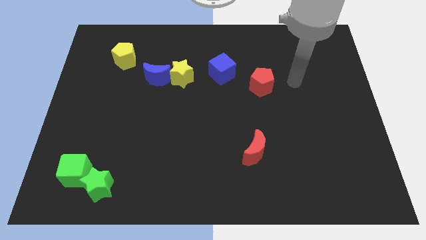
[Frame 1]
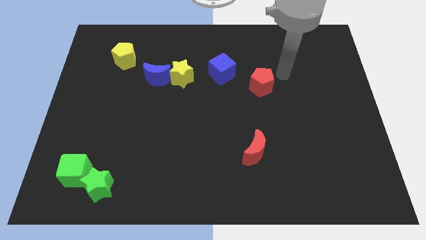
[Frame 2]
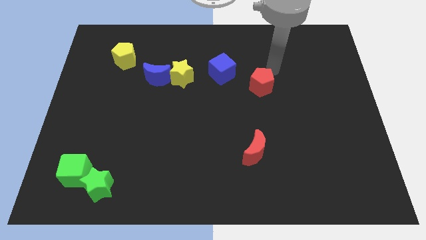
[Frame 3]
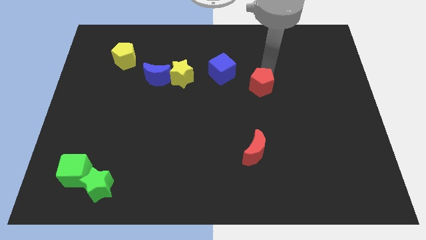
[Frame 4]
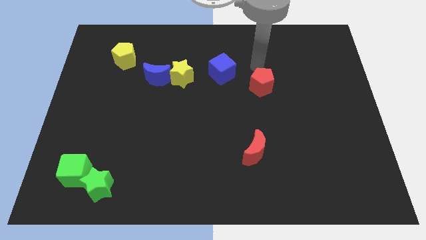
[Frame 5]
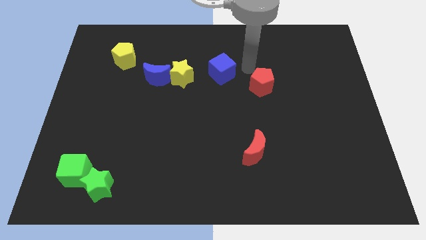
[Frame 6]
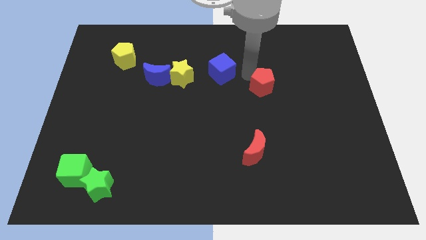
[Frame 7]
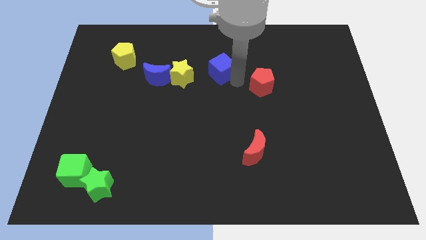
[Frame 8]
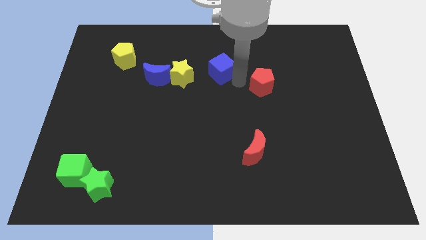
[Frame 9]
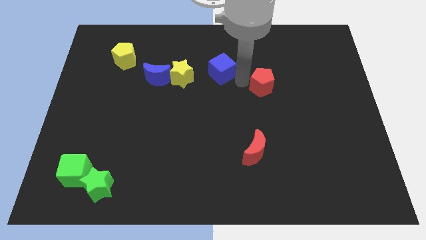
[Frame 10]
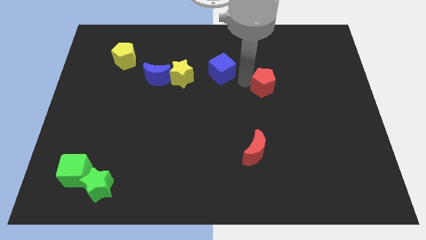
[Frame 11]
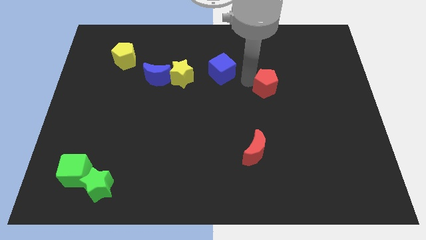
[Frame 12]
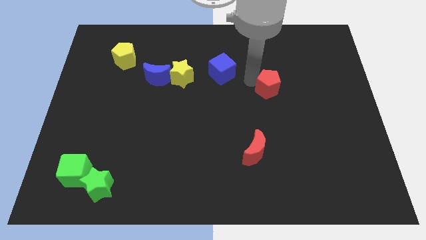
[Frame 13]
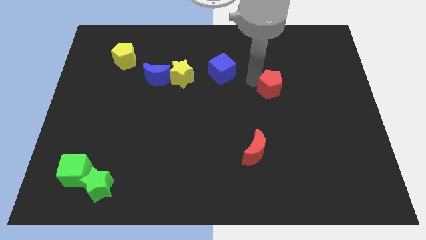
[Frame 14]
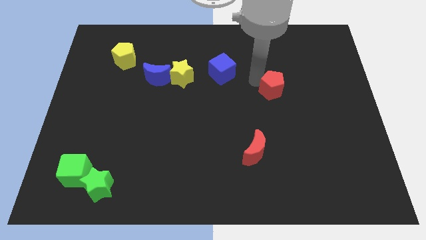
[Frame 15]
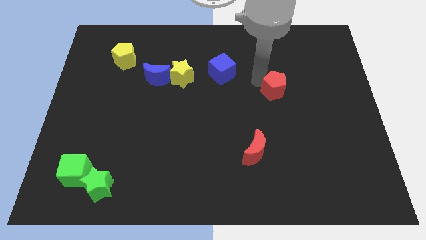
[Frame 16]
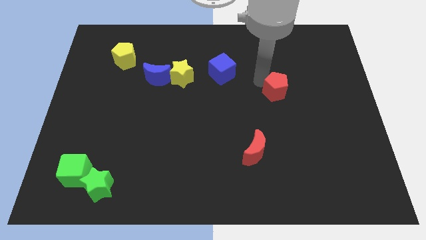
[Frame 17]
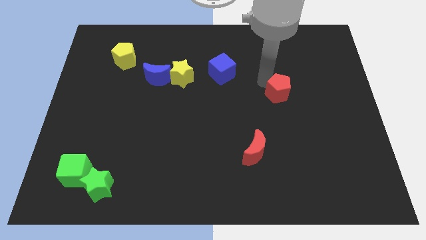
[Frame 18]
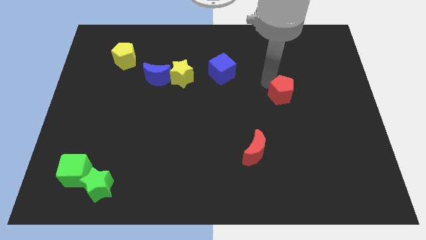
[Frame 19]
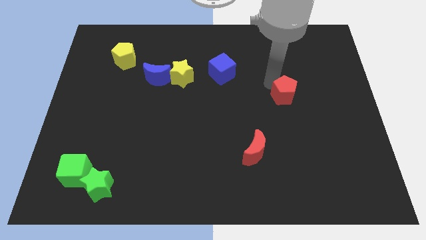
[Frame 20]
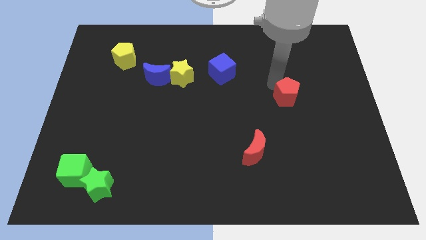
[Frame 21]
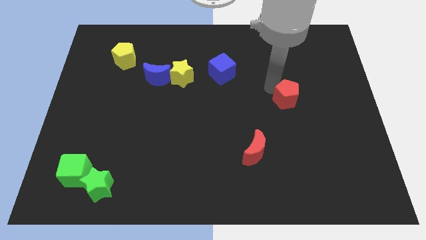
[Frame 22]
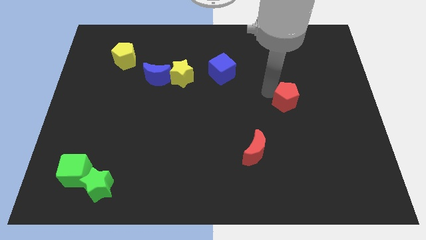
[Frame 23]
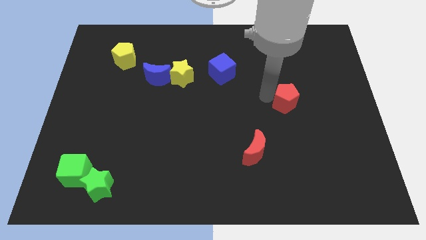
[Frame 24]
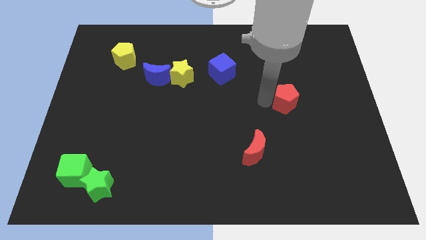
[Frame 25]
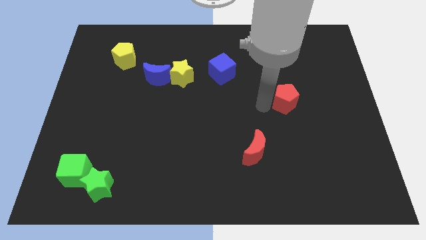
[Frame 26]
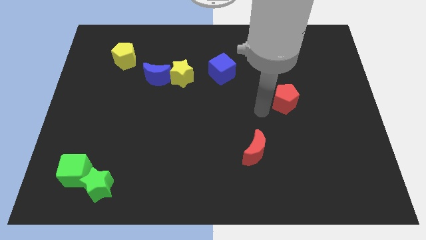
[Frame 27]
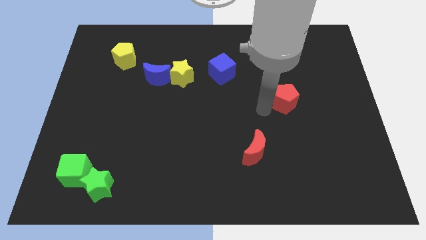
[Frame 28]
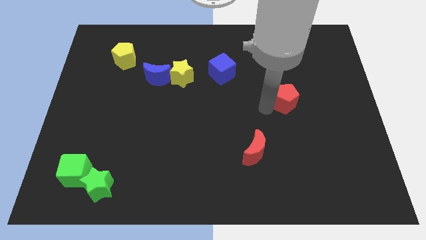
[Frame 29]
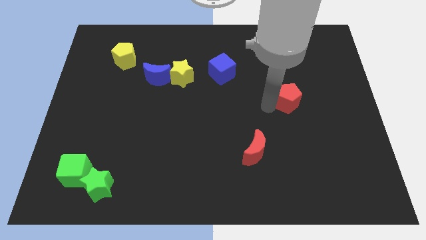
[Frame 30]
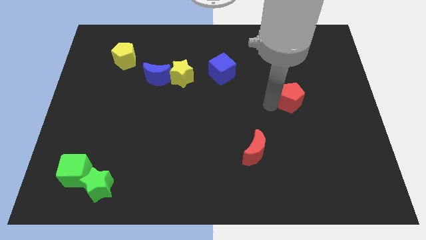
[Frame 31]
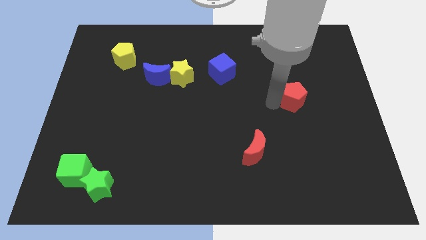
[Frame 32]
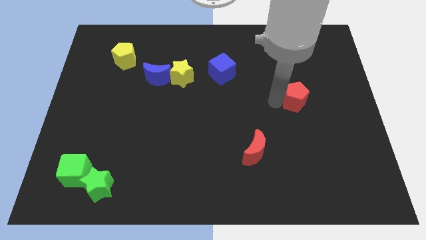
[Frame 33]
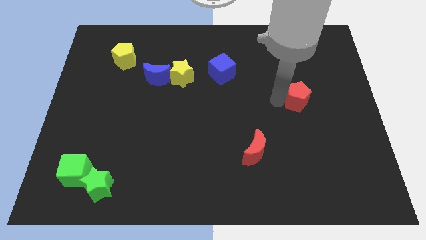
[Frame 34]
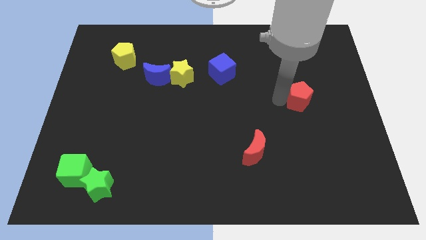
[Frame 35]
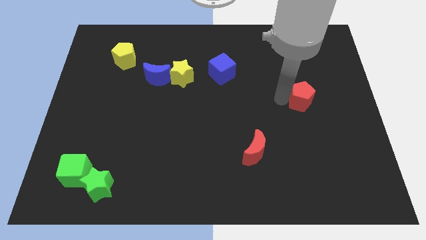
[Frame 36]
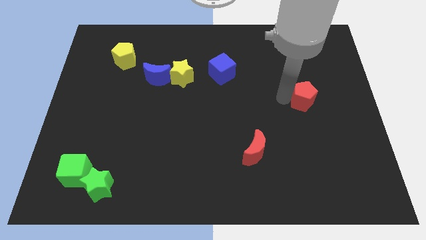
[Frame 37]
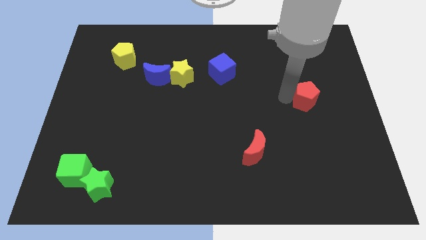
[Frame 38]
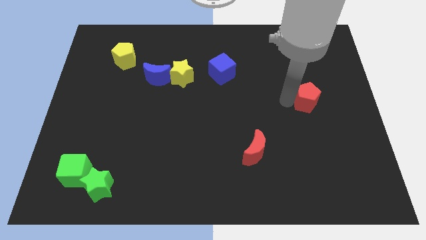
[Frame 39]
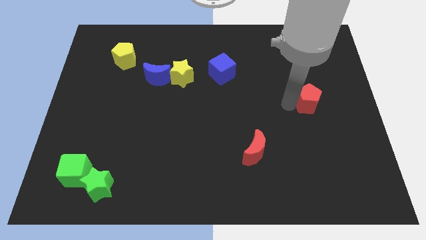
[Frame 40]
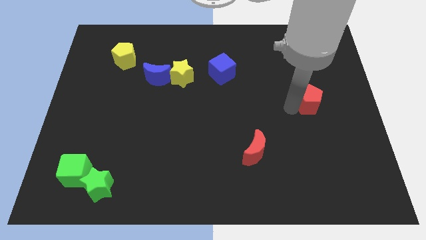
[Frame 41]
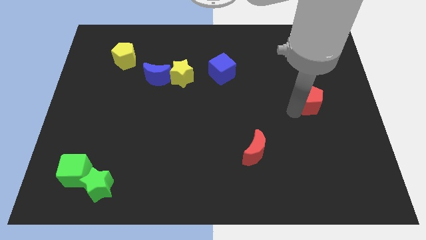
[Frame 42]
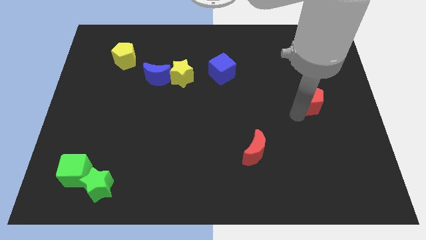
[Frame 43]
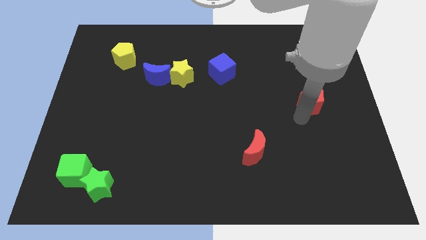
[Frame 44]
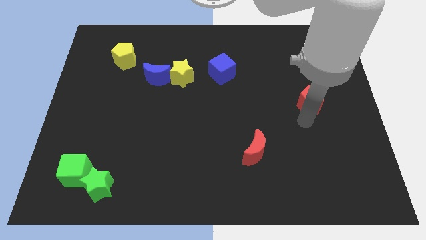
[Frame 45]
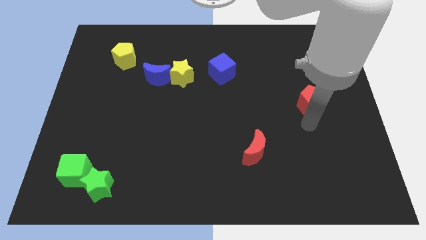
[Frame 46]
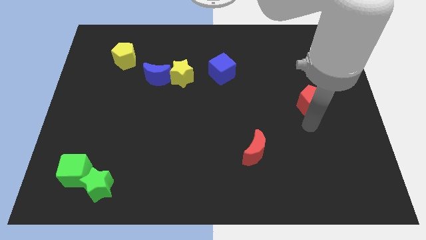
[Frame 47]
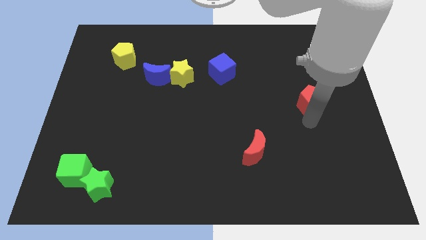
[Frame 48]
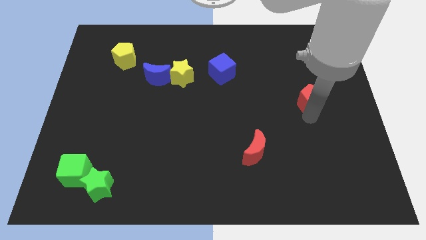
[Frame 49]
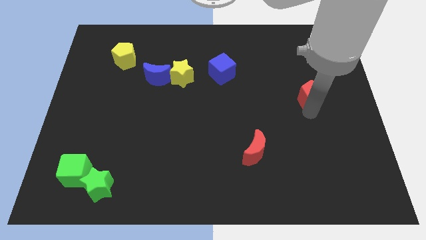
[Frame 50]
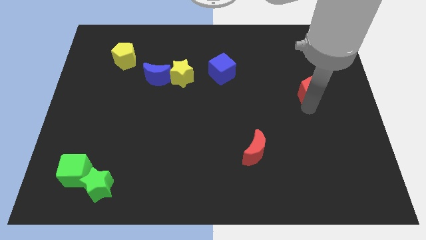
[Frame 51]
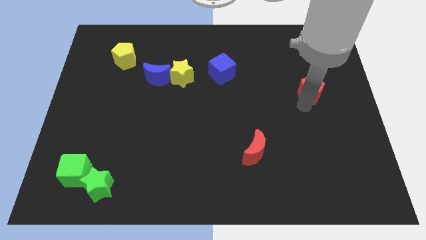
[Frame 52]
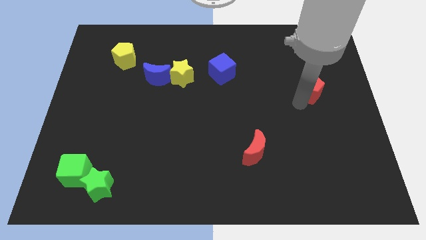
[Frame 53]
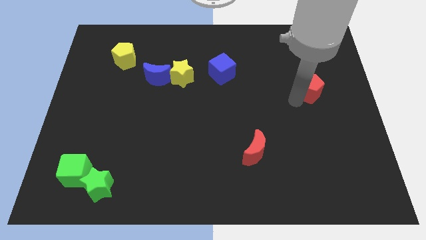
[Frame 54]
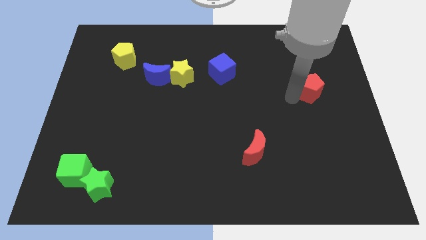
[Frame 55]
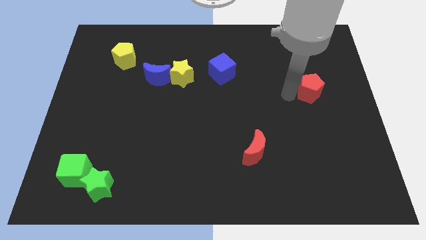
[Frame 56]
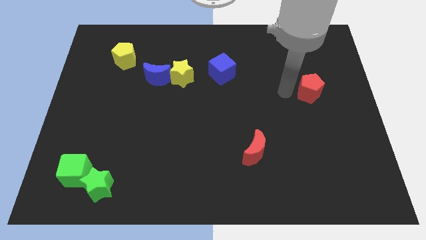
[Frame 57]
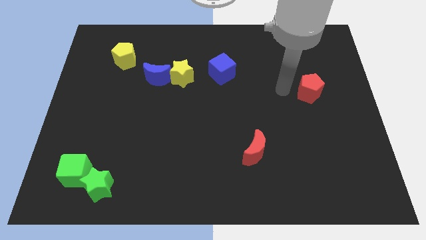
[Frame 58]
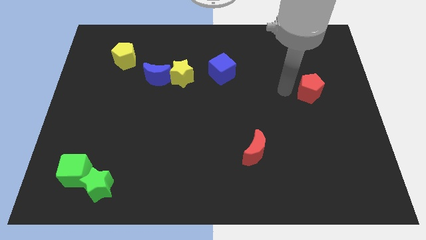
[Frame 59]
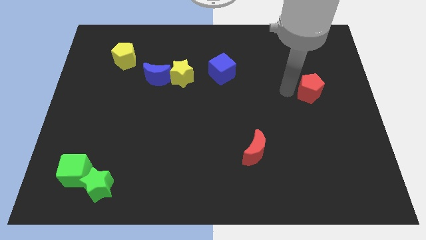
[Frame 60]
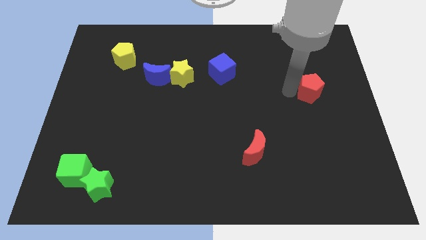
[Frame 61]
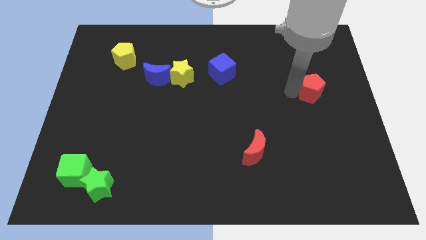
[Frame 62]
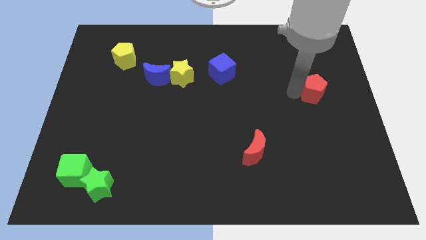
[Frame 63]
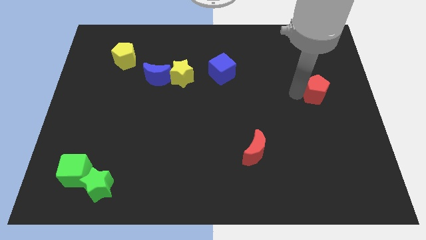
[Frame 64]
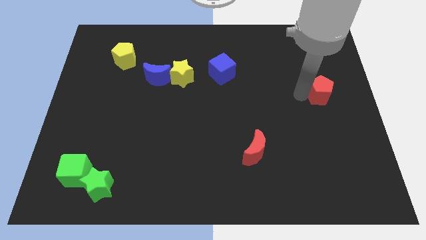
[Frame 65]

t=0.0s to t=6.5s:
move the red pentagon to the right side
